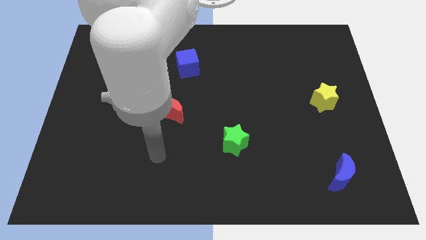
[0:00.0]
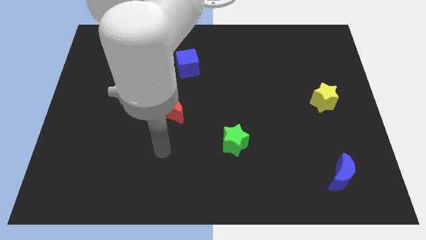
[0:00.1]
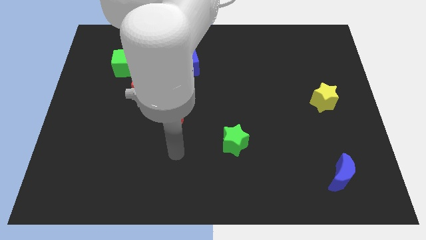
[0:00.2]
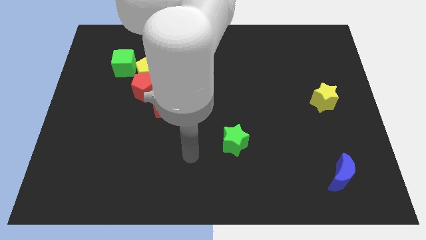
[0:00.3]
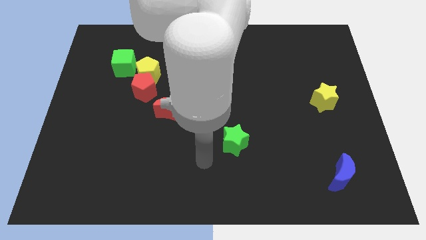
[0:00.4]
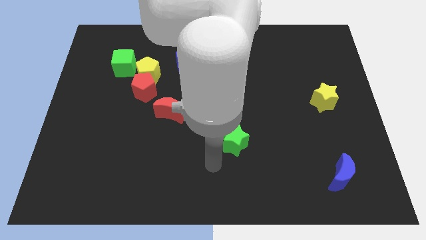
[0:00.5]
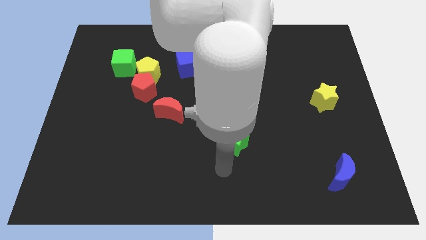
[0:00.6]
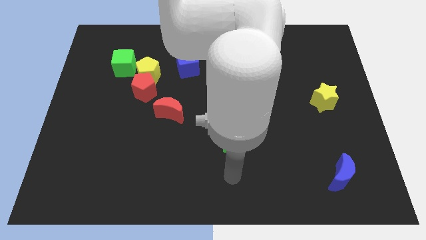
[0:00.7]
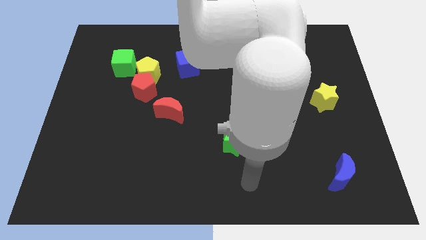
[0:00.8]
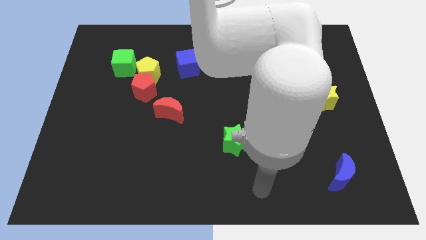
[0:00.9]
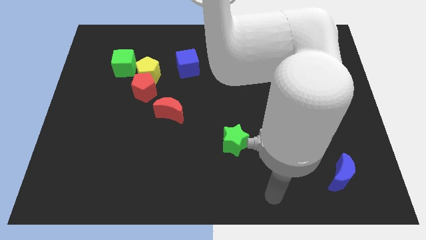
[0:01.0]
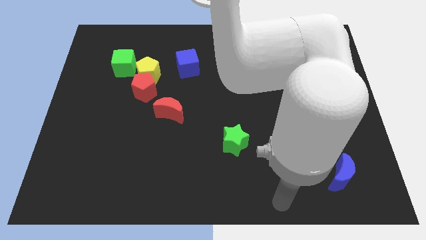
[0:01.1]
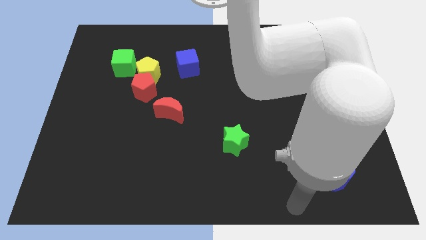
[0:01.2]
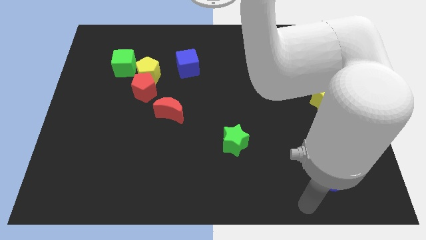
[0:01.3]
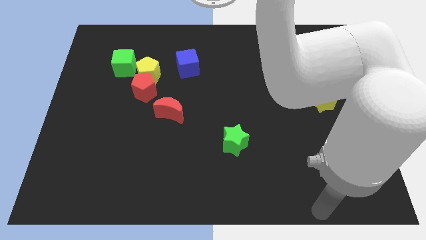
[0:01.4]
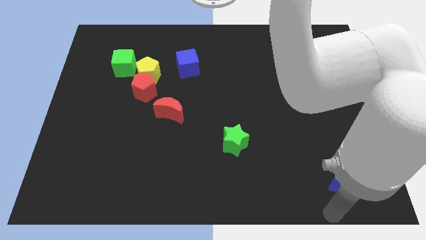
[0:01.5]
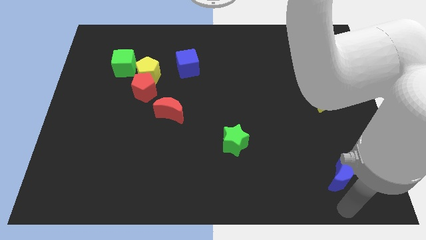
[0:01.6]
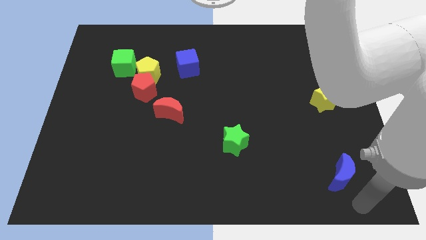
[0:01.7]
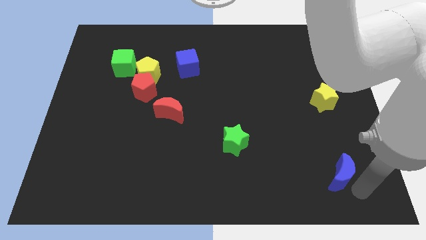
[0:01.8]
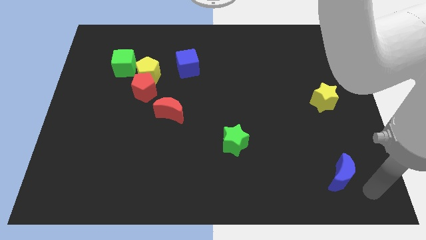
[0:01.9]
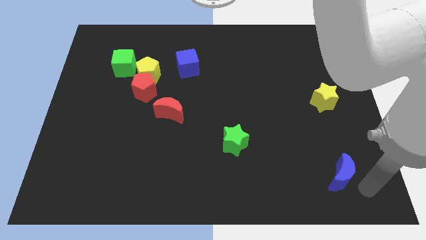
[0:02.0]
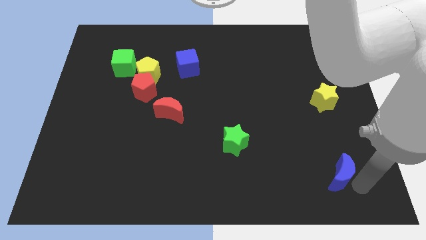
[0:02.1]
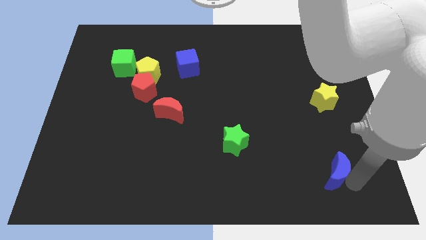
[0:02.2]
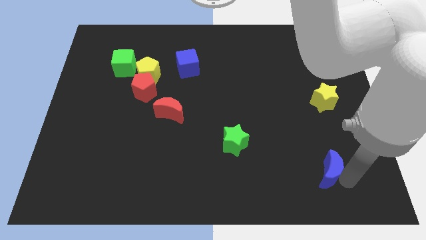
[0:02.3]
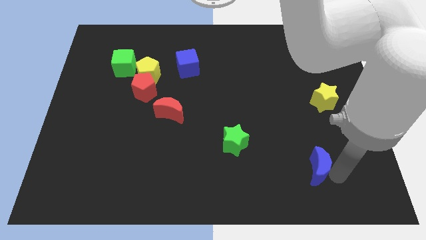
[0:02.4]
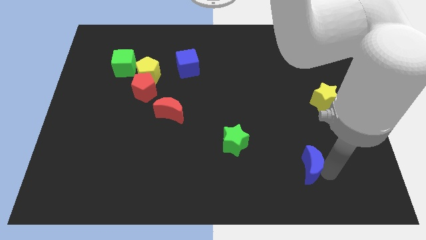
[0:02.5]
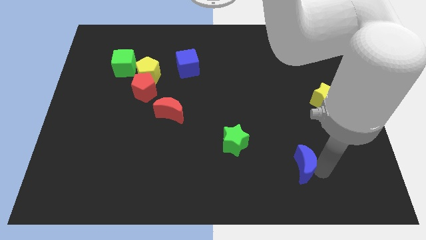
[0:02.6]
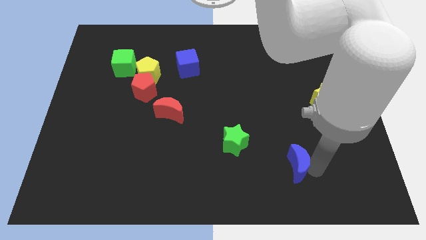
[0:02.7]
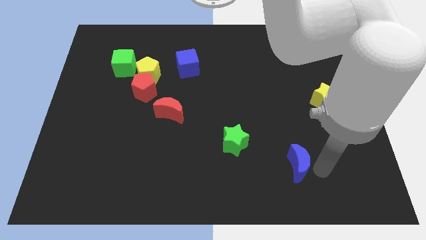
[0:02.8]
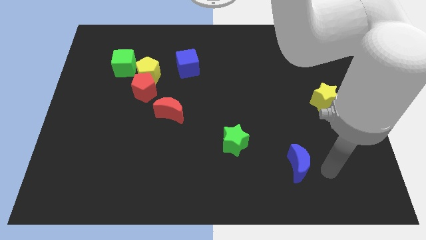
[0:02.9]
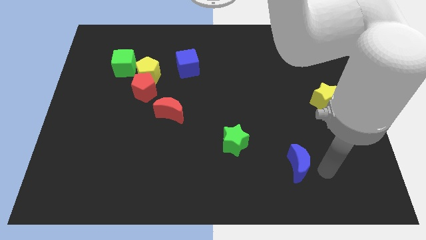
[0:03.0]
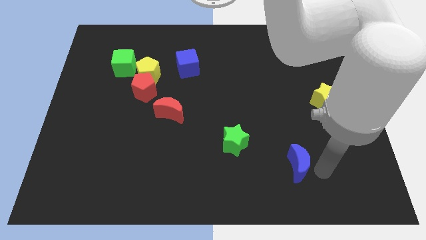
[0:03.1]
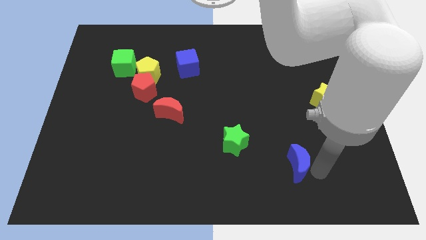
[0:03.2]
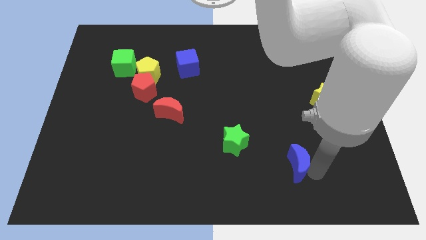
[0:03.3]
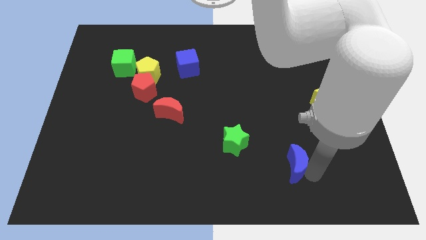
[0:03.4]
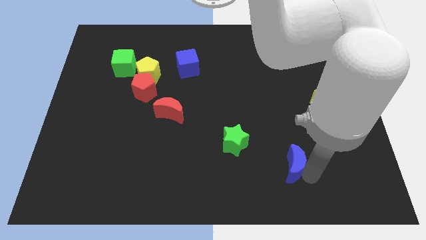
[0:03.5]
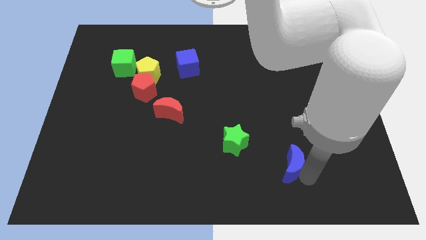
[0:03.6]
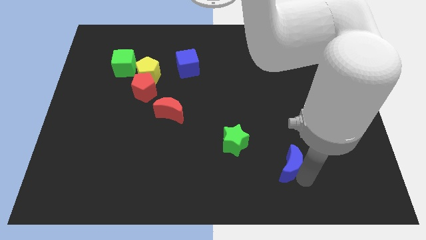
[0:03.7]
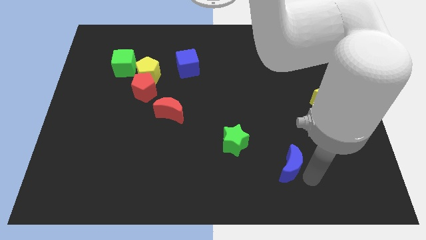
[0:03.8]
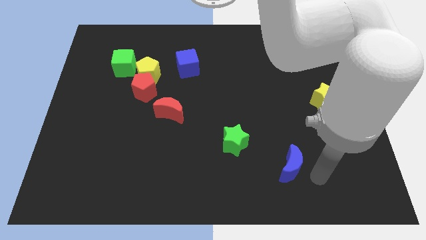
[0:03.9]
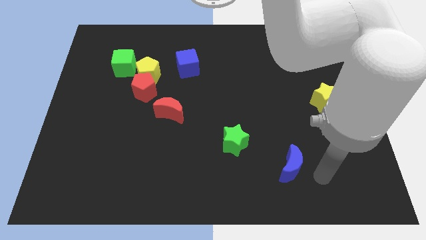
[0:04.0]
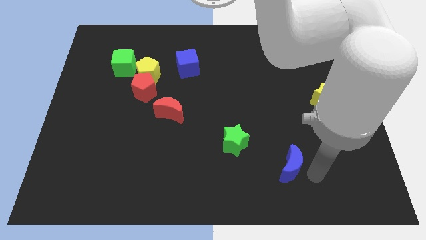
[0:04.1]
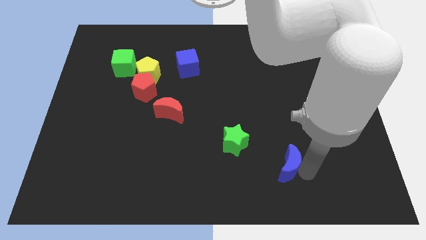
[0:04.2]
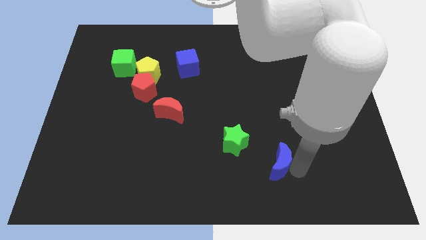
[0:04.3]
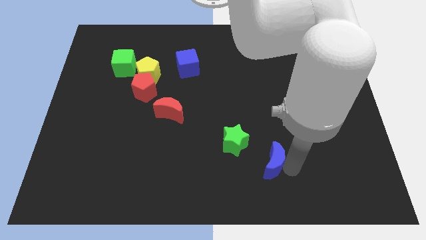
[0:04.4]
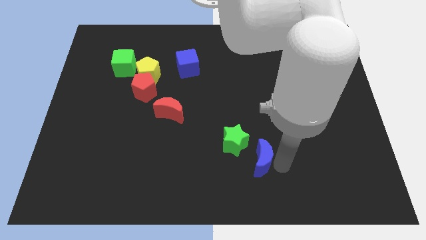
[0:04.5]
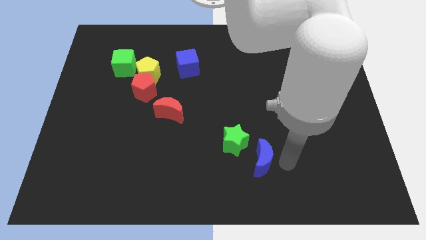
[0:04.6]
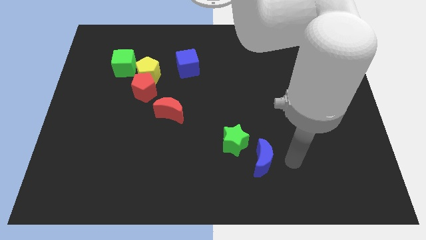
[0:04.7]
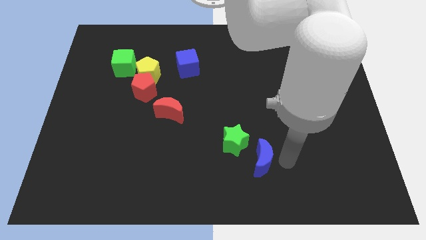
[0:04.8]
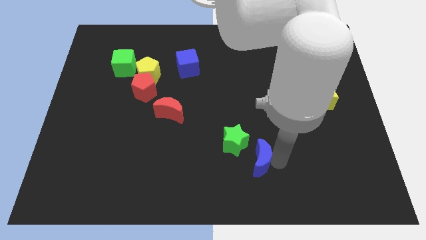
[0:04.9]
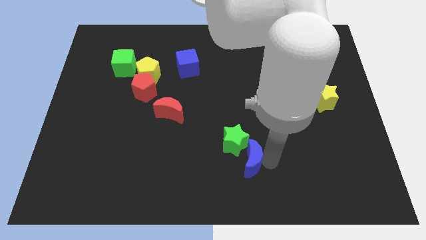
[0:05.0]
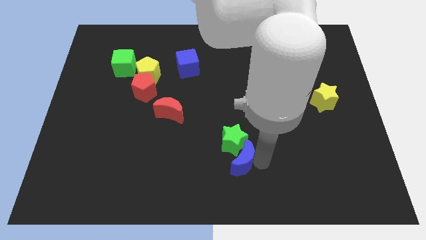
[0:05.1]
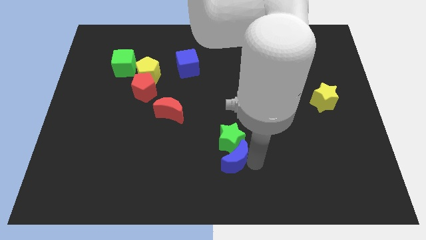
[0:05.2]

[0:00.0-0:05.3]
move the blue moon to the bottom left of the green star
